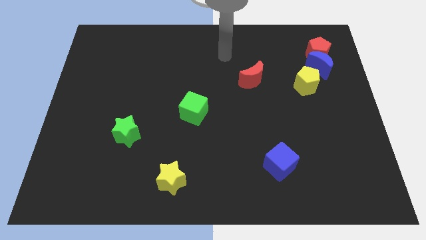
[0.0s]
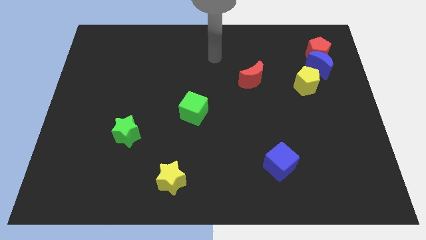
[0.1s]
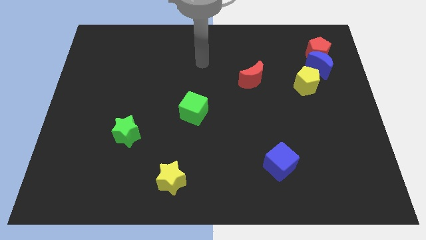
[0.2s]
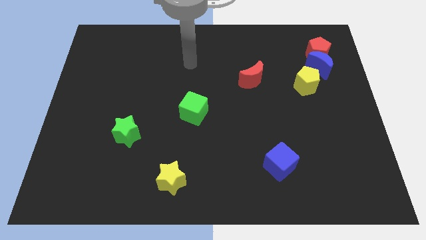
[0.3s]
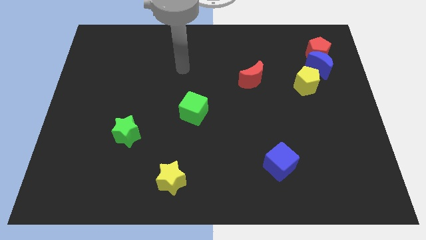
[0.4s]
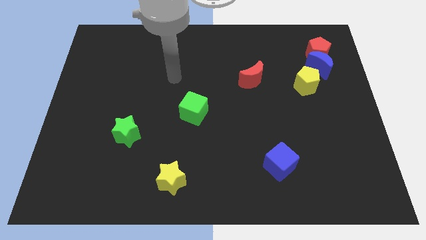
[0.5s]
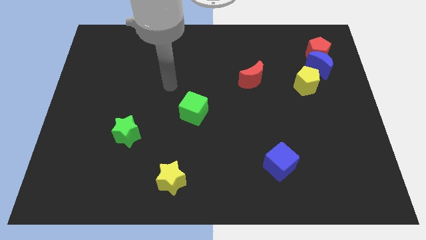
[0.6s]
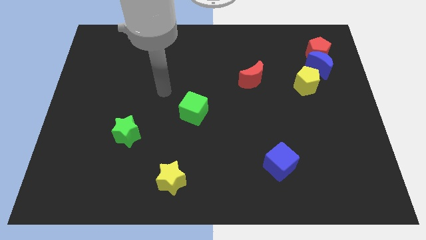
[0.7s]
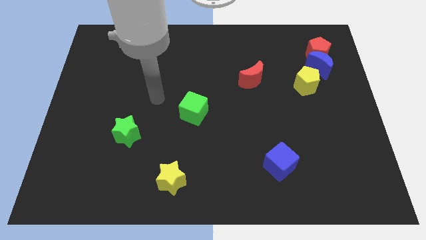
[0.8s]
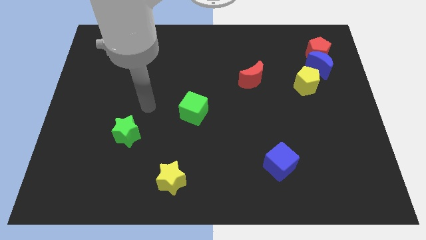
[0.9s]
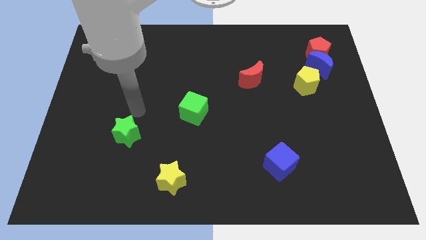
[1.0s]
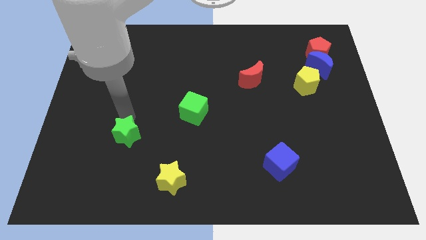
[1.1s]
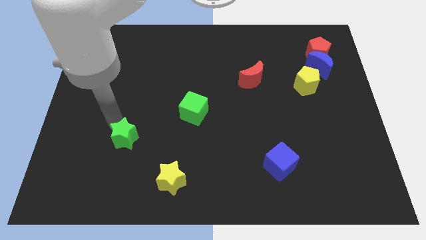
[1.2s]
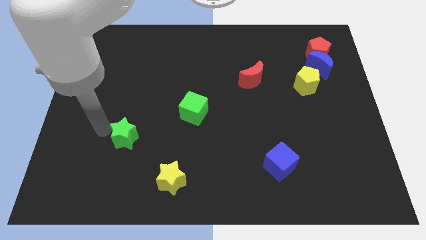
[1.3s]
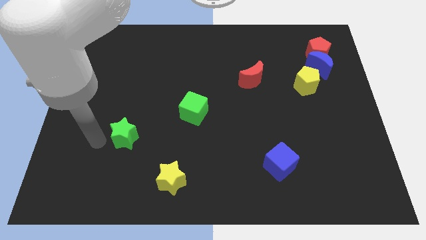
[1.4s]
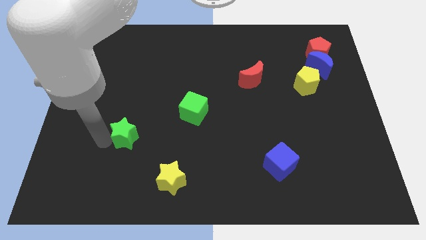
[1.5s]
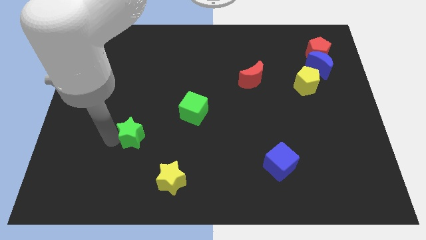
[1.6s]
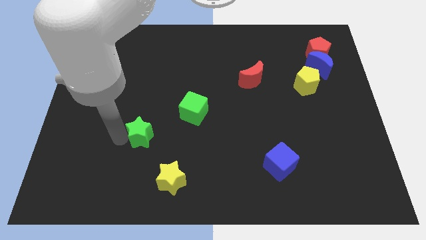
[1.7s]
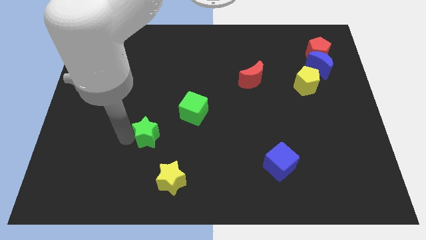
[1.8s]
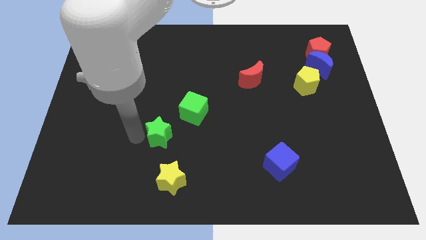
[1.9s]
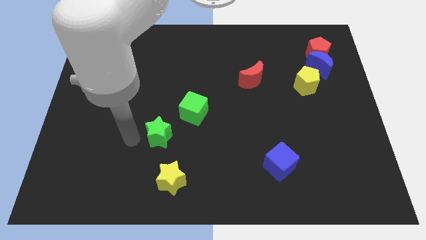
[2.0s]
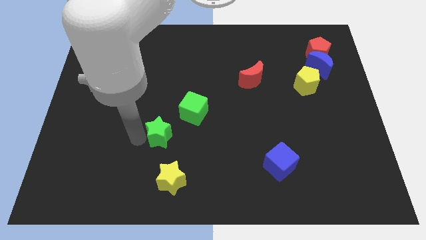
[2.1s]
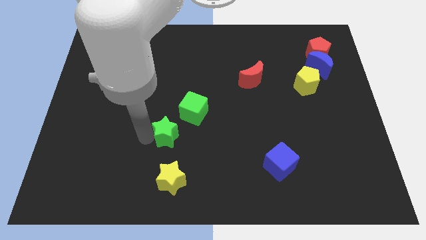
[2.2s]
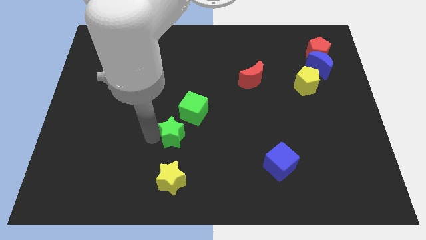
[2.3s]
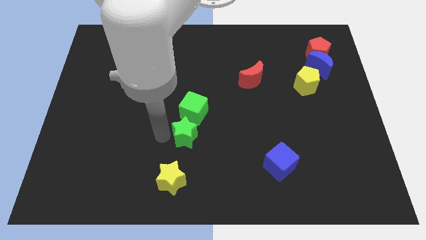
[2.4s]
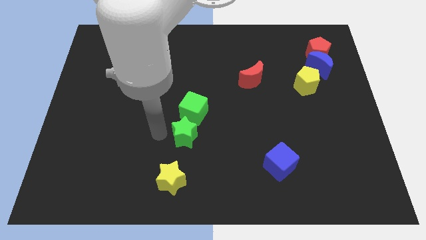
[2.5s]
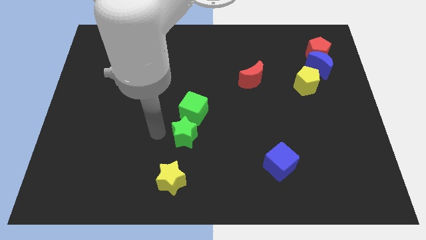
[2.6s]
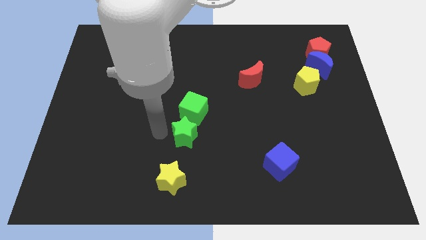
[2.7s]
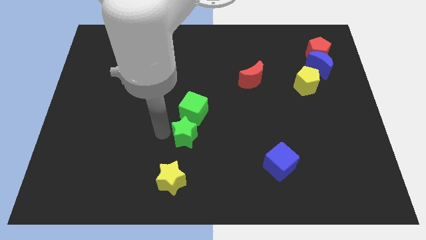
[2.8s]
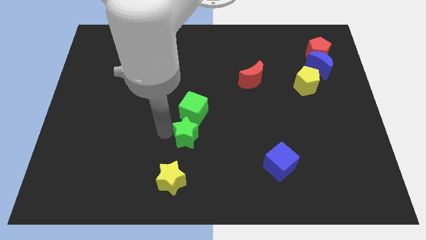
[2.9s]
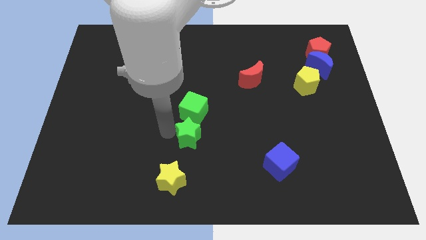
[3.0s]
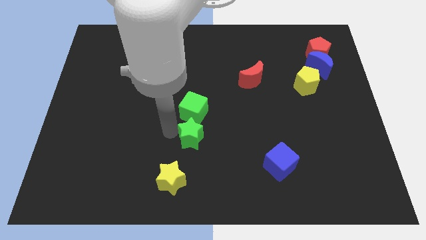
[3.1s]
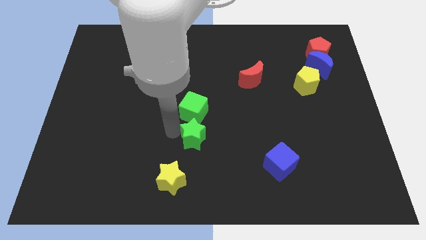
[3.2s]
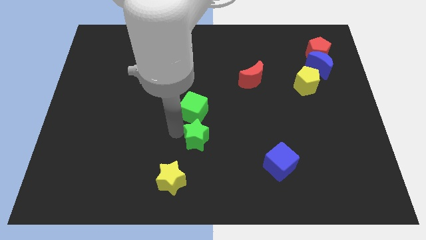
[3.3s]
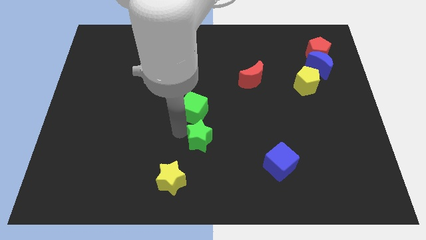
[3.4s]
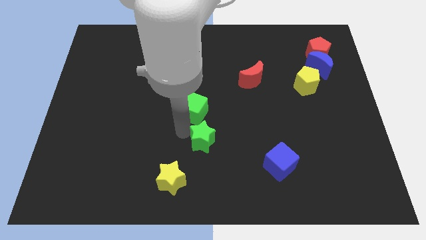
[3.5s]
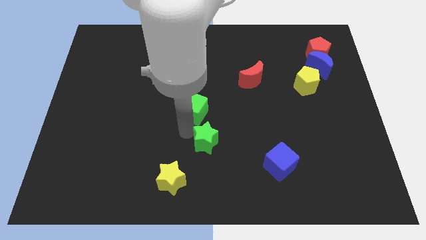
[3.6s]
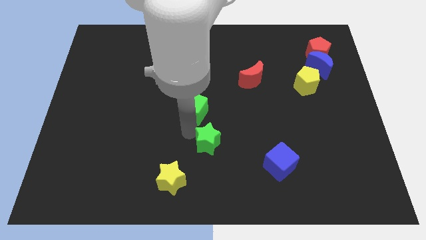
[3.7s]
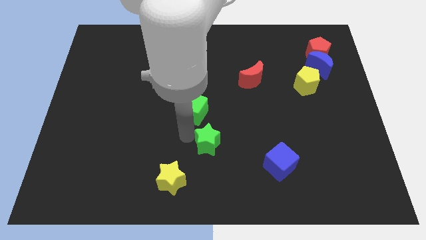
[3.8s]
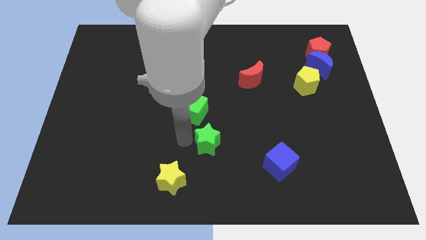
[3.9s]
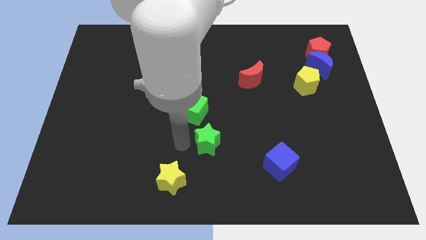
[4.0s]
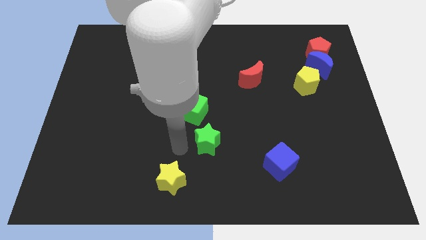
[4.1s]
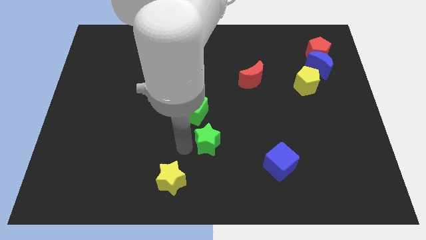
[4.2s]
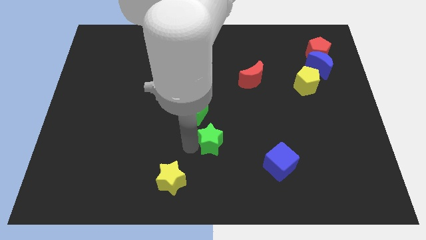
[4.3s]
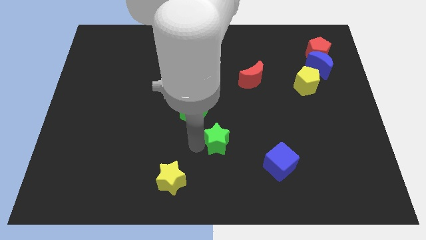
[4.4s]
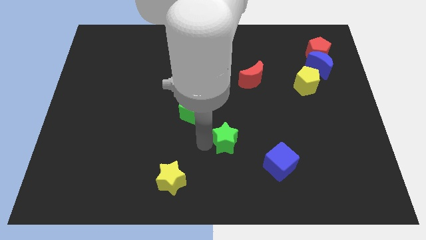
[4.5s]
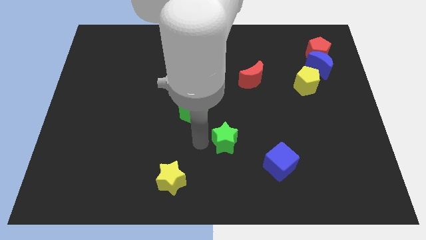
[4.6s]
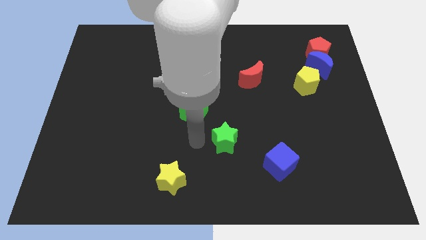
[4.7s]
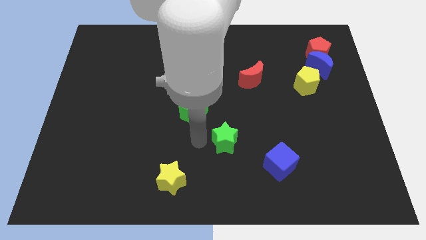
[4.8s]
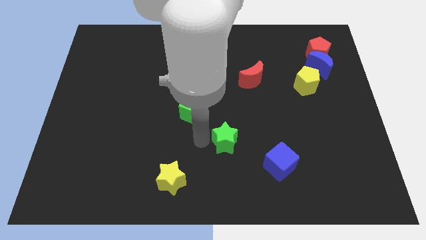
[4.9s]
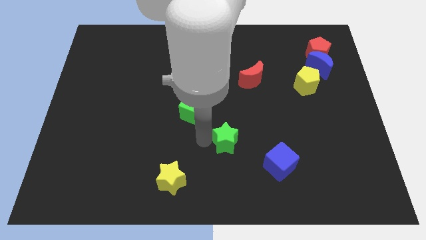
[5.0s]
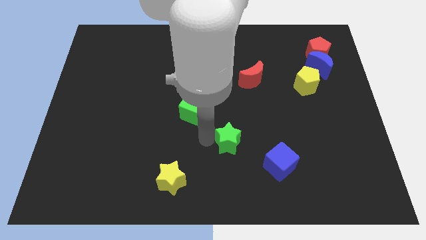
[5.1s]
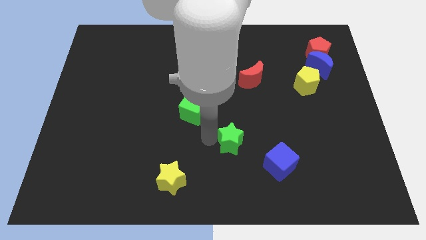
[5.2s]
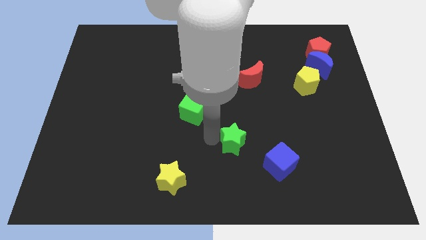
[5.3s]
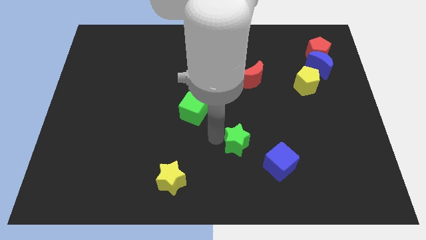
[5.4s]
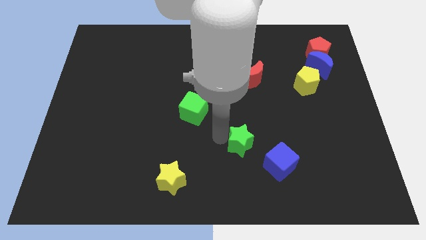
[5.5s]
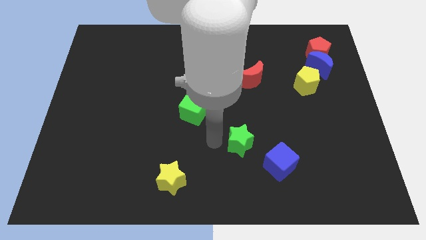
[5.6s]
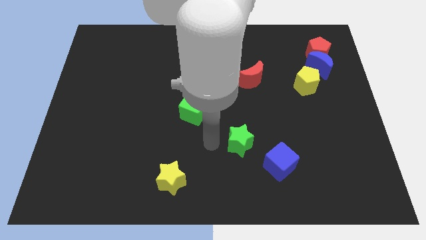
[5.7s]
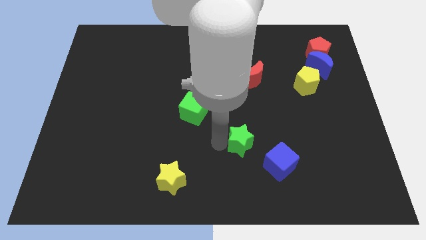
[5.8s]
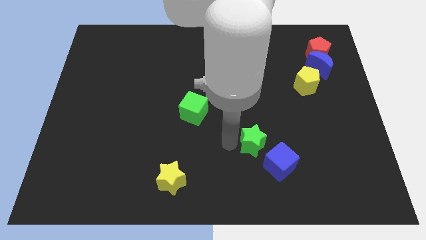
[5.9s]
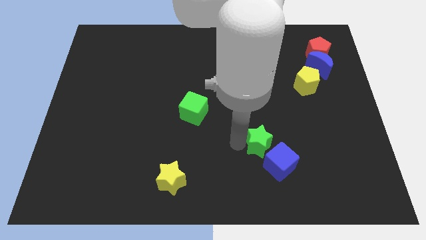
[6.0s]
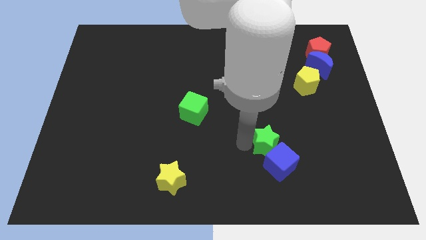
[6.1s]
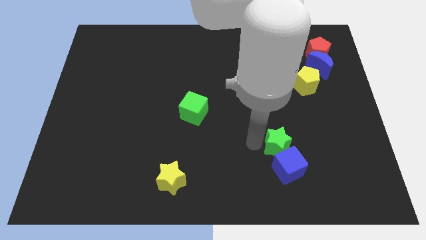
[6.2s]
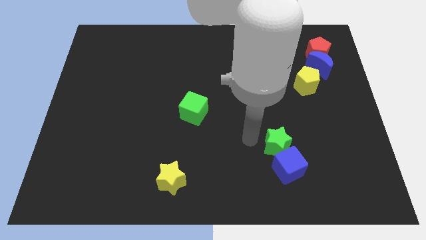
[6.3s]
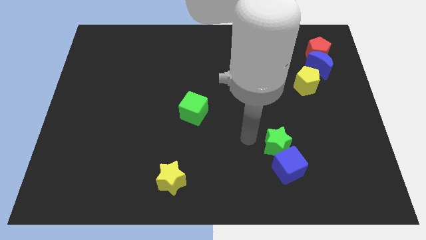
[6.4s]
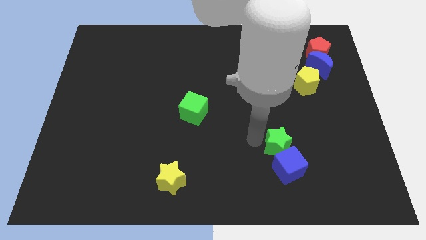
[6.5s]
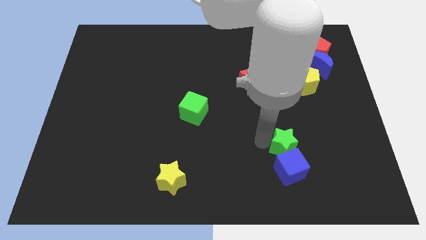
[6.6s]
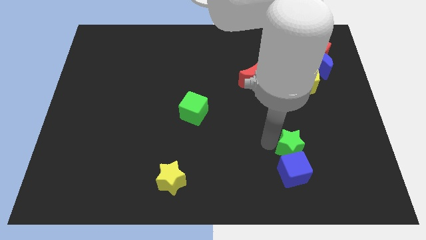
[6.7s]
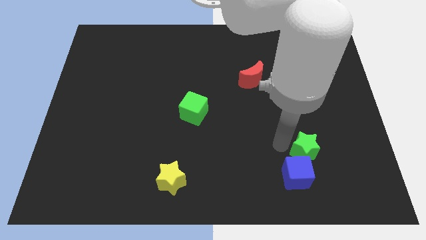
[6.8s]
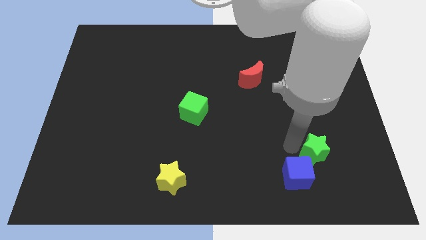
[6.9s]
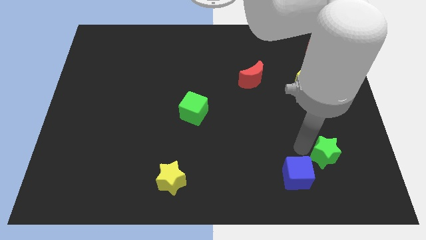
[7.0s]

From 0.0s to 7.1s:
push the green star to the right of the blue cube
